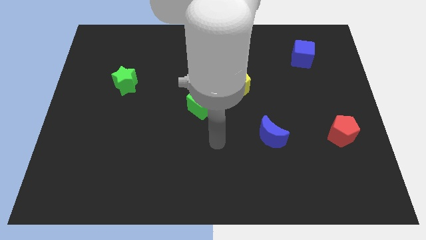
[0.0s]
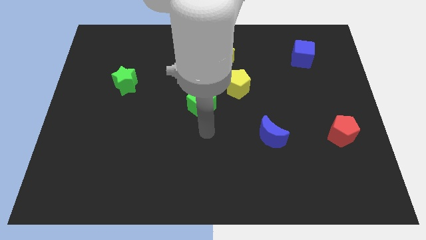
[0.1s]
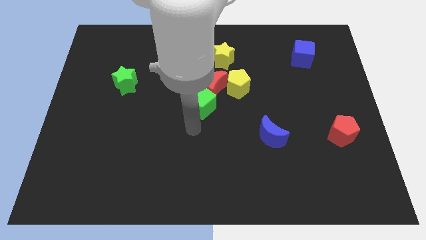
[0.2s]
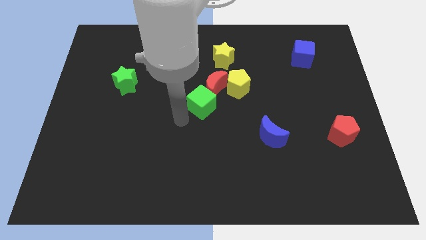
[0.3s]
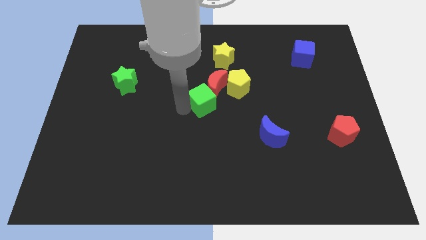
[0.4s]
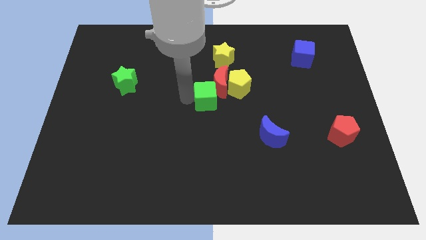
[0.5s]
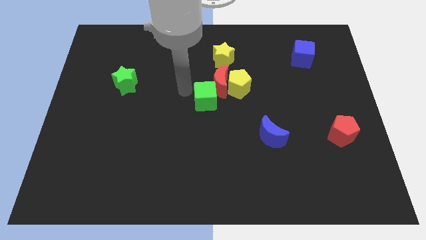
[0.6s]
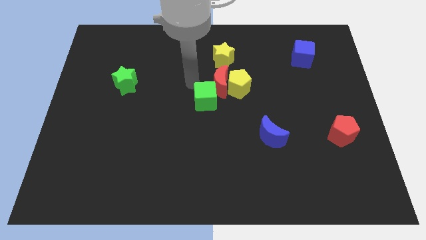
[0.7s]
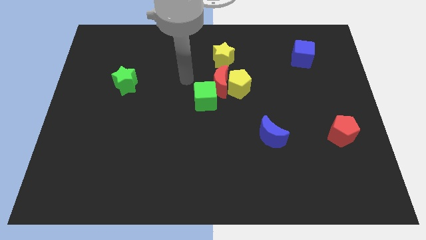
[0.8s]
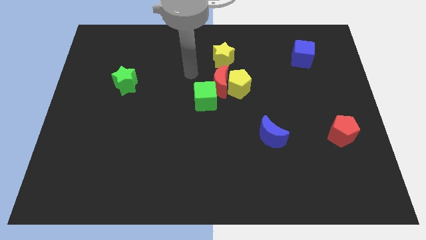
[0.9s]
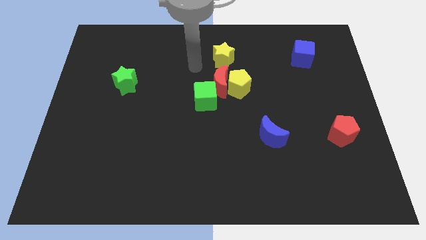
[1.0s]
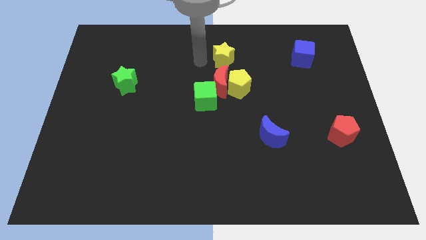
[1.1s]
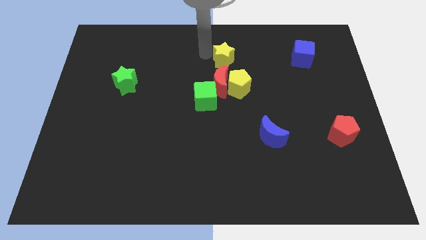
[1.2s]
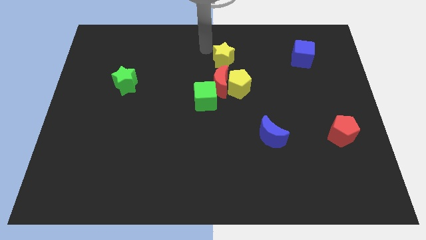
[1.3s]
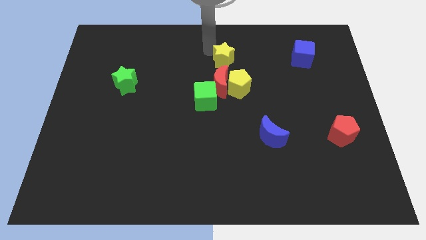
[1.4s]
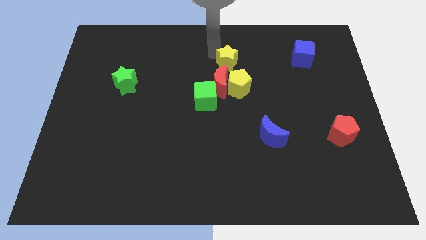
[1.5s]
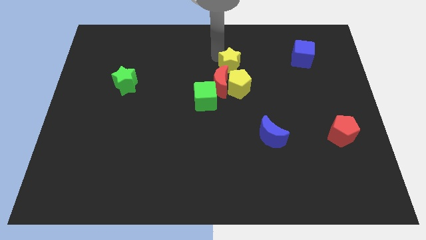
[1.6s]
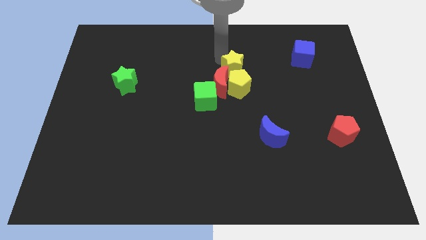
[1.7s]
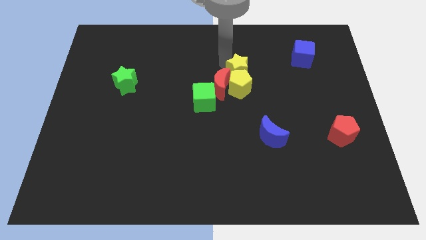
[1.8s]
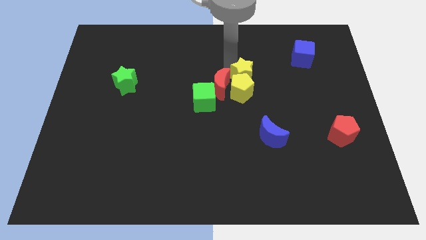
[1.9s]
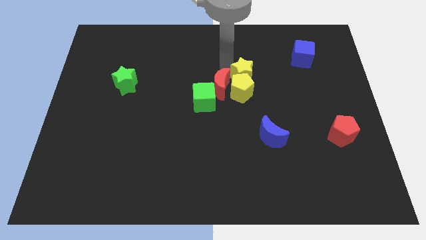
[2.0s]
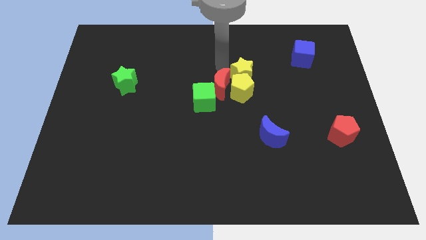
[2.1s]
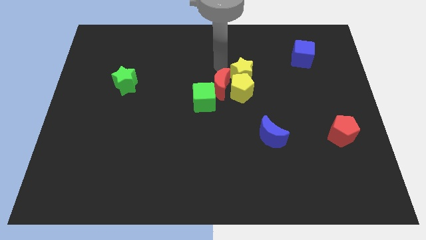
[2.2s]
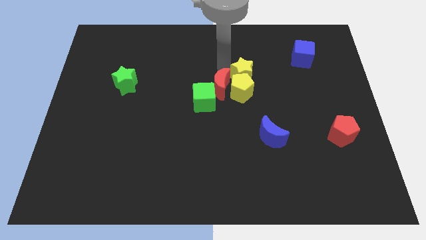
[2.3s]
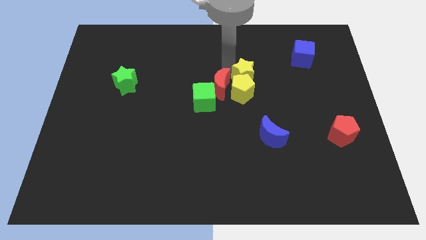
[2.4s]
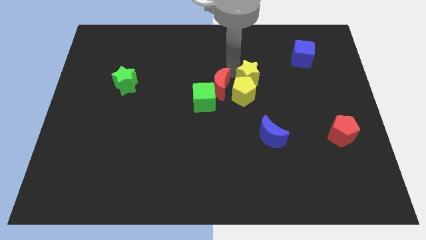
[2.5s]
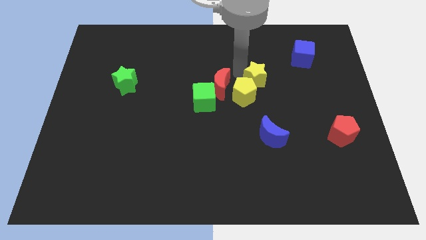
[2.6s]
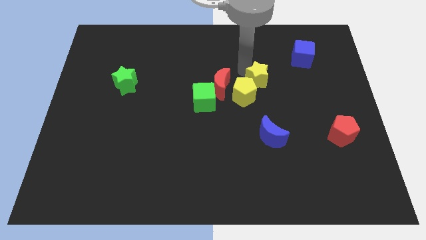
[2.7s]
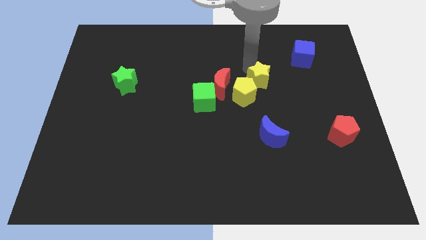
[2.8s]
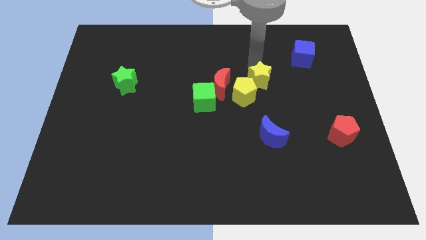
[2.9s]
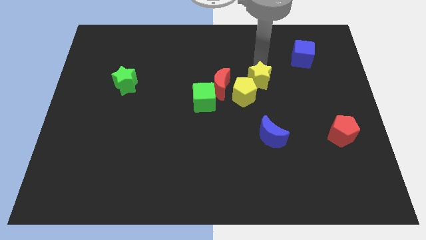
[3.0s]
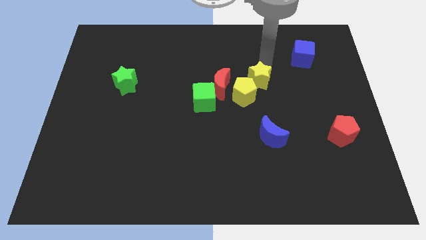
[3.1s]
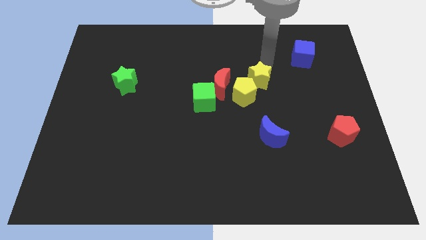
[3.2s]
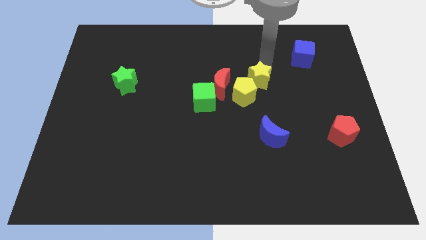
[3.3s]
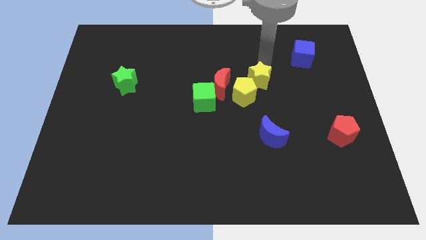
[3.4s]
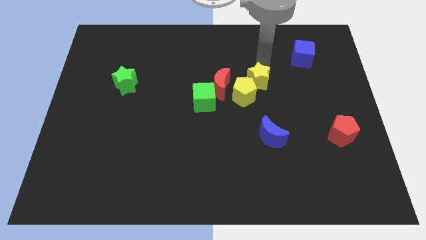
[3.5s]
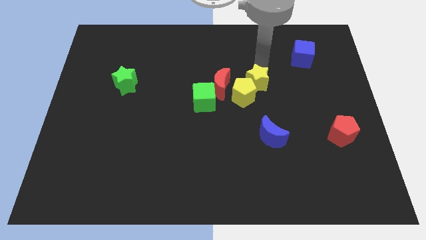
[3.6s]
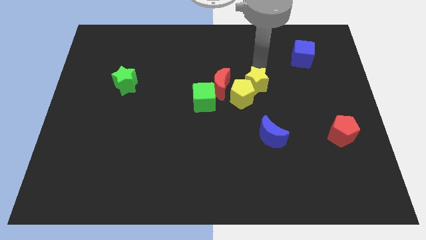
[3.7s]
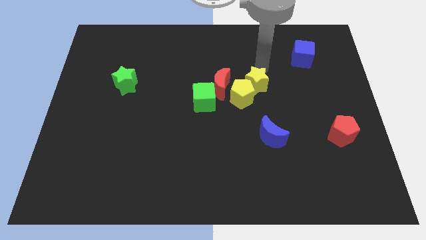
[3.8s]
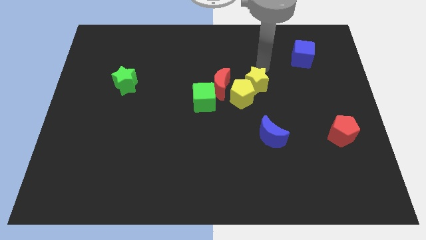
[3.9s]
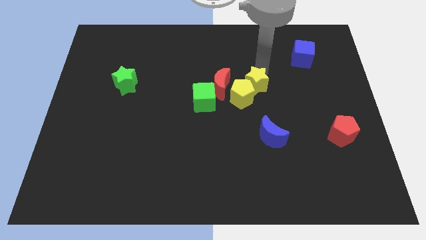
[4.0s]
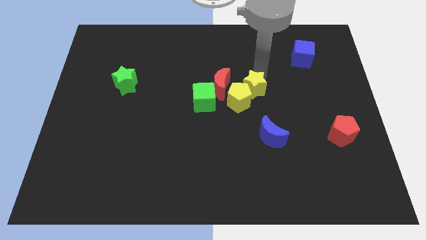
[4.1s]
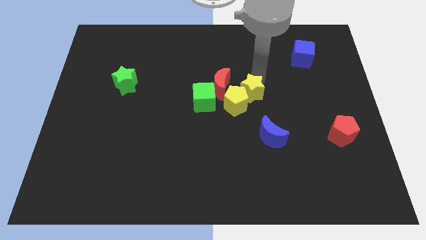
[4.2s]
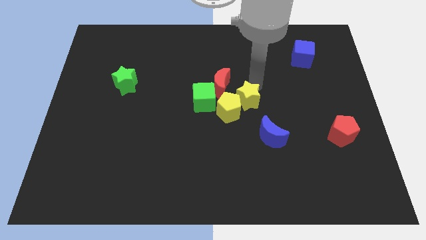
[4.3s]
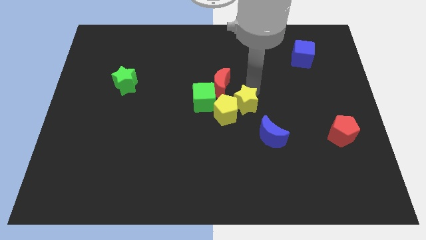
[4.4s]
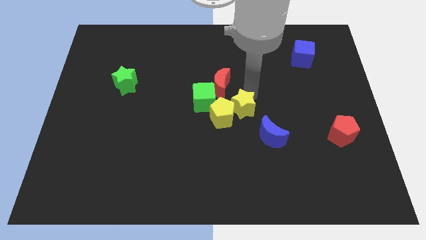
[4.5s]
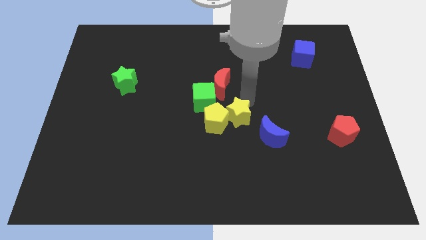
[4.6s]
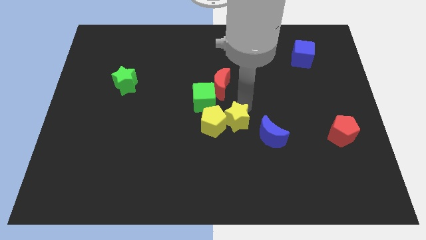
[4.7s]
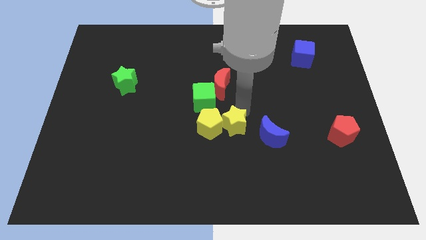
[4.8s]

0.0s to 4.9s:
move the yellow star down

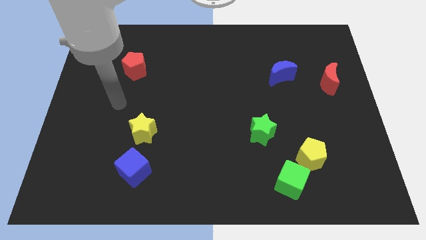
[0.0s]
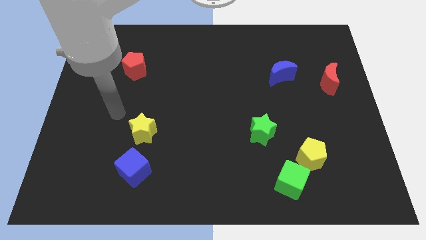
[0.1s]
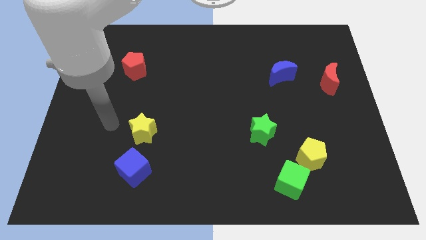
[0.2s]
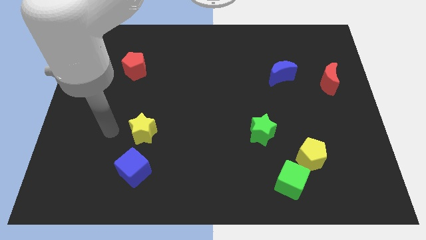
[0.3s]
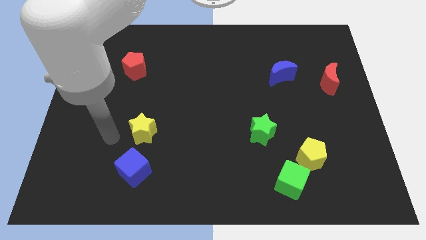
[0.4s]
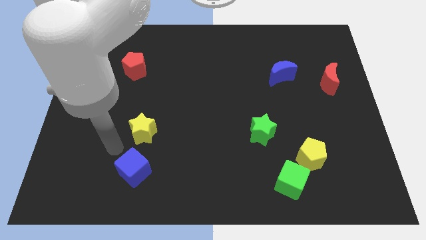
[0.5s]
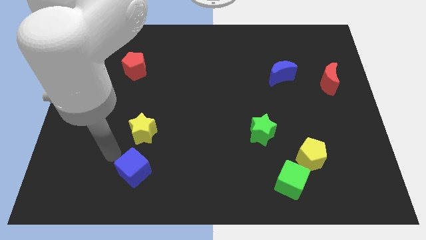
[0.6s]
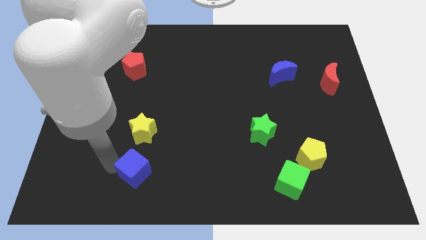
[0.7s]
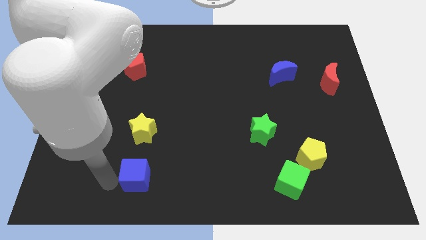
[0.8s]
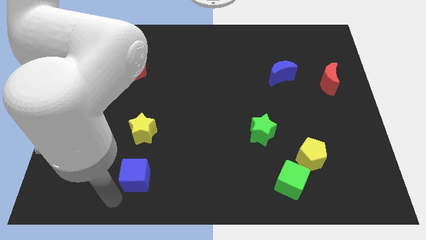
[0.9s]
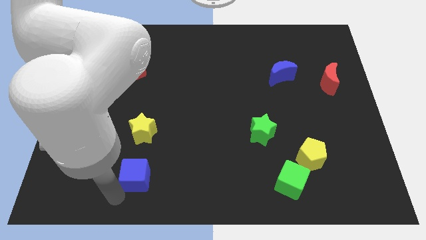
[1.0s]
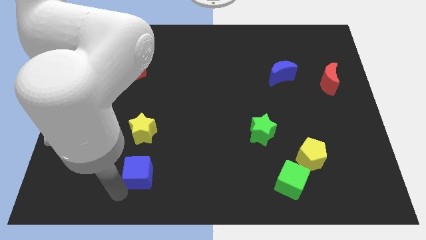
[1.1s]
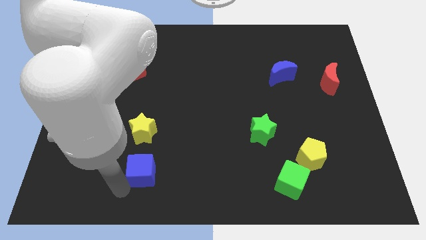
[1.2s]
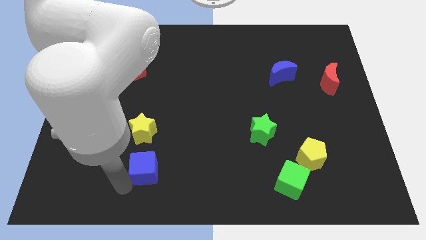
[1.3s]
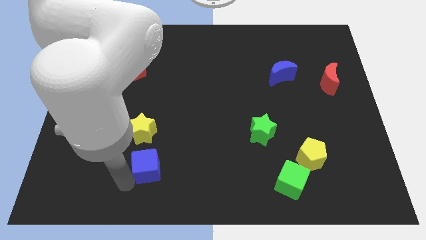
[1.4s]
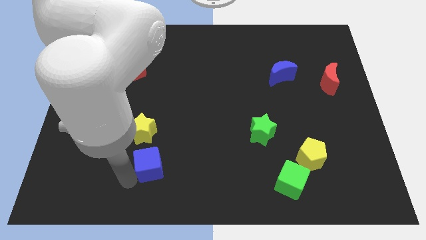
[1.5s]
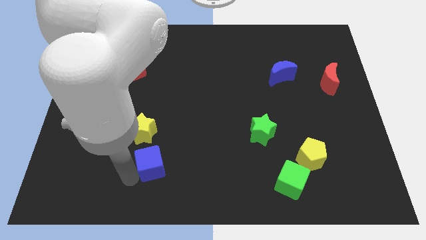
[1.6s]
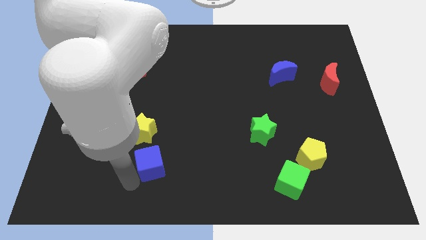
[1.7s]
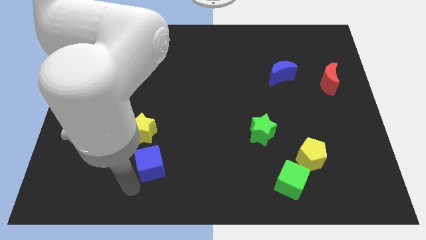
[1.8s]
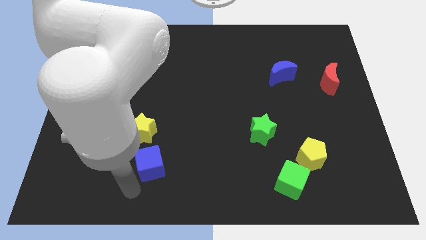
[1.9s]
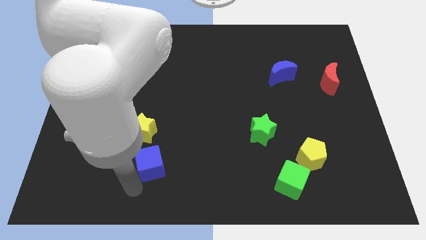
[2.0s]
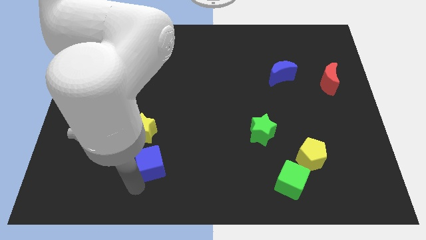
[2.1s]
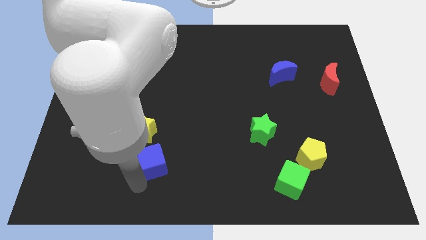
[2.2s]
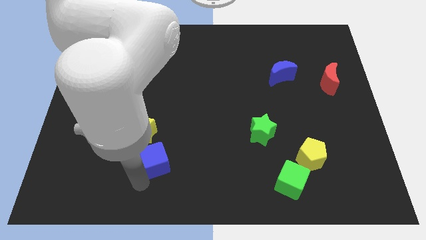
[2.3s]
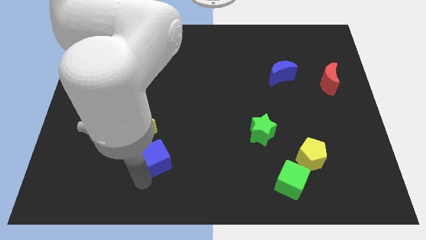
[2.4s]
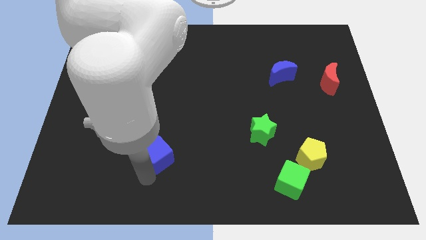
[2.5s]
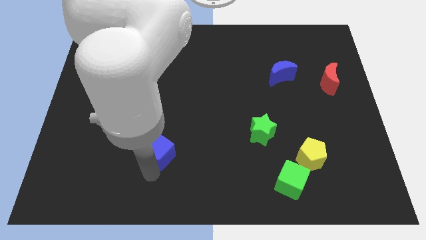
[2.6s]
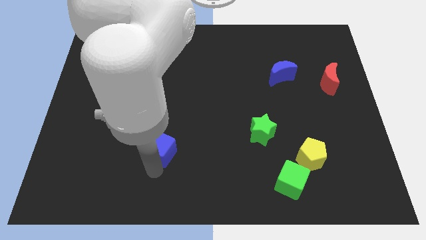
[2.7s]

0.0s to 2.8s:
slightly move the blue cube diagonally up and right
